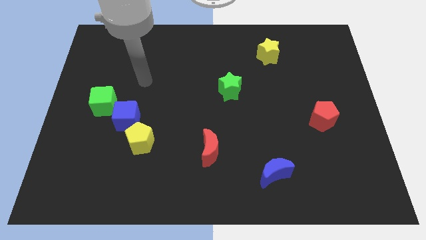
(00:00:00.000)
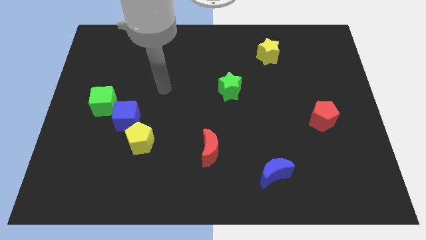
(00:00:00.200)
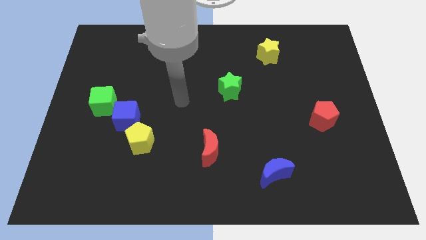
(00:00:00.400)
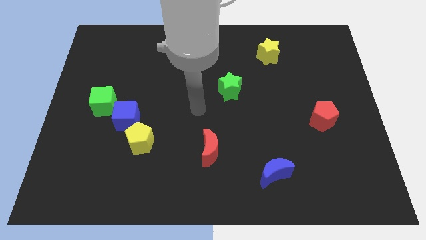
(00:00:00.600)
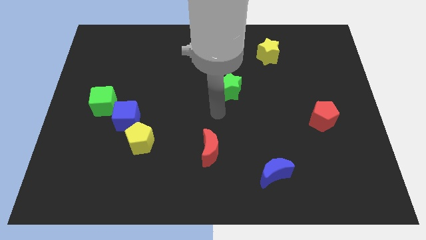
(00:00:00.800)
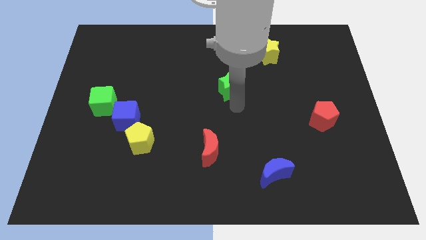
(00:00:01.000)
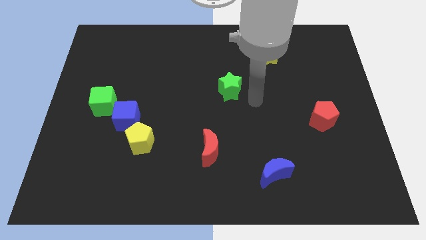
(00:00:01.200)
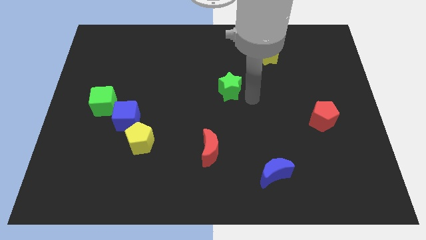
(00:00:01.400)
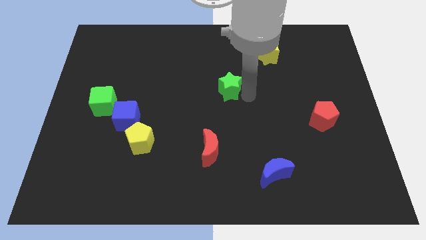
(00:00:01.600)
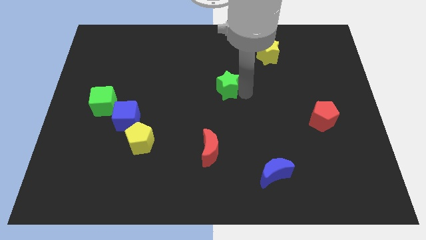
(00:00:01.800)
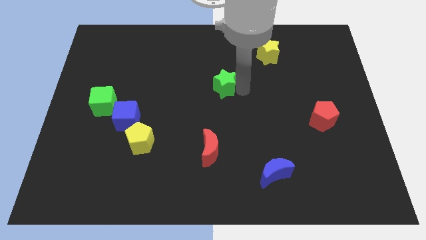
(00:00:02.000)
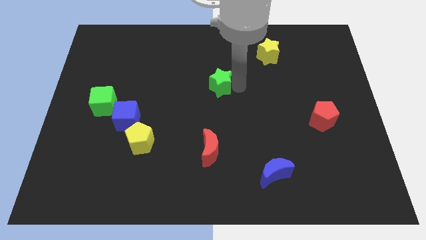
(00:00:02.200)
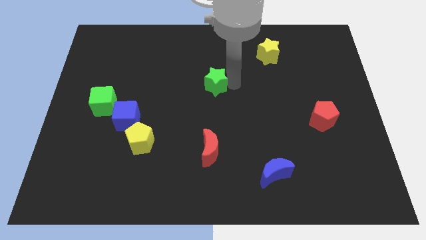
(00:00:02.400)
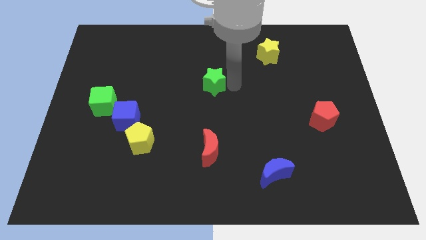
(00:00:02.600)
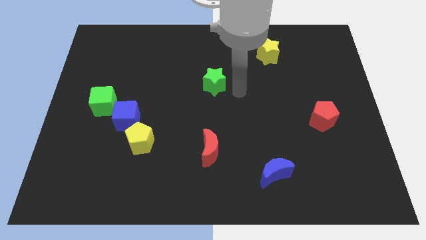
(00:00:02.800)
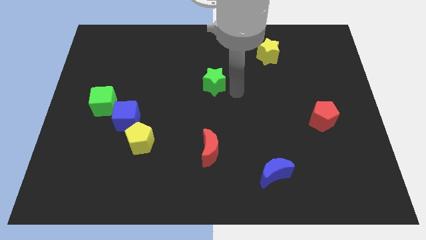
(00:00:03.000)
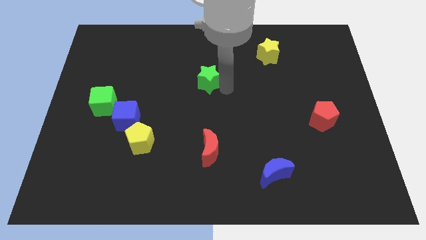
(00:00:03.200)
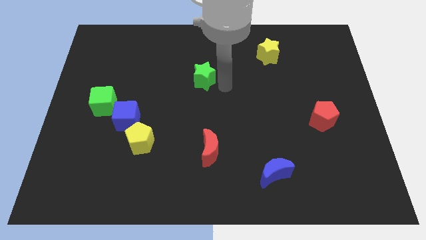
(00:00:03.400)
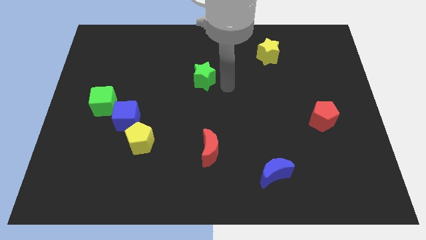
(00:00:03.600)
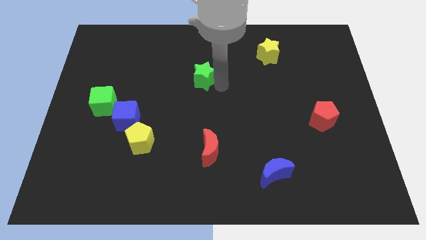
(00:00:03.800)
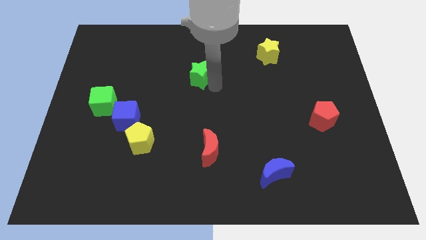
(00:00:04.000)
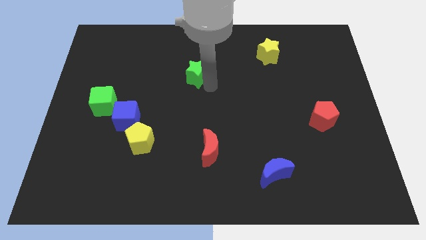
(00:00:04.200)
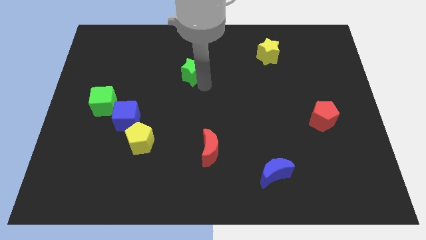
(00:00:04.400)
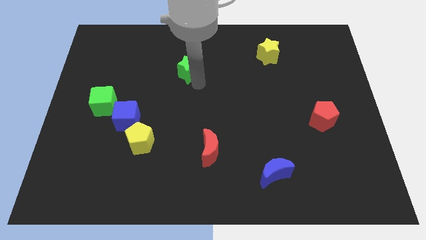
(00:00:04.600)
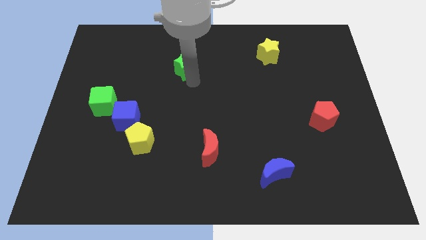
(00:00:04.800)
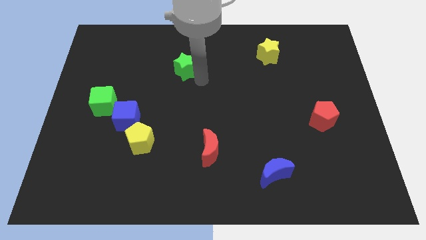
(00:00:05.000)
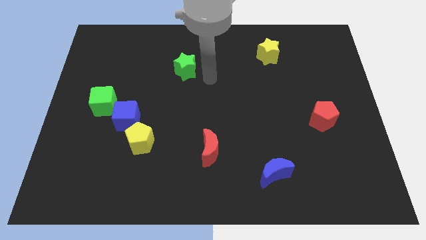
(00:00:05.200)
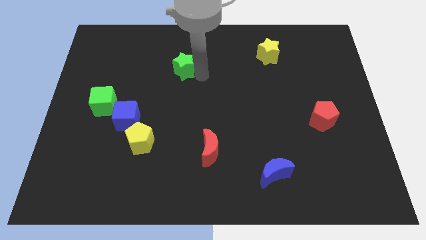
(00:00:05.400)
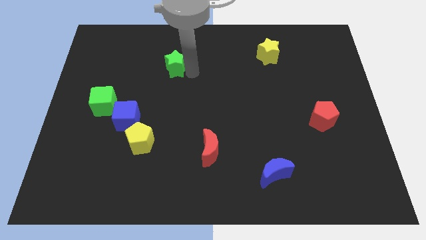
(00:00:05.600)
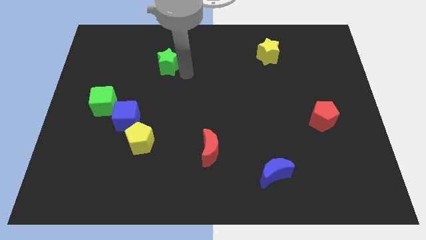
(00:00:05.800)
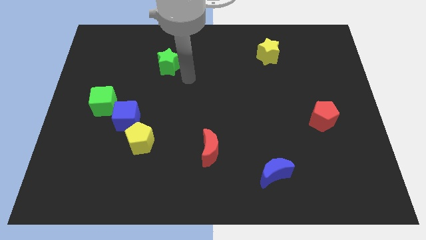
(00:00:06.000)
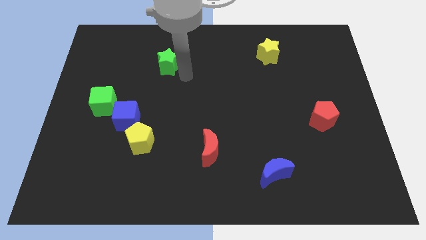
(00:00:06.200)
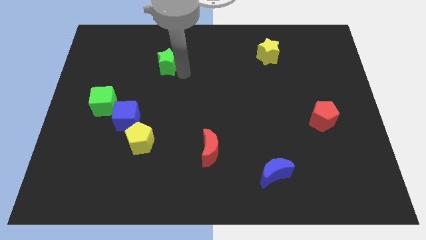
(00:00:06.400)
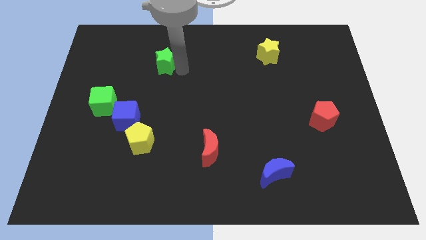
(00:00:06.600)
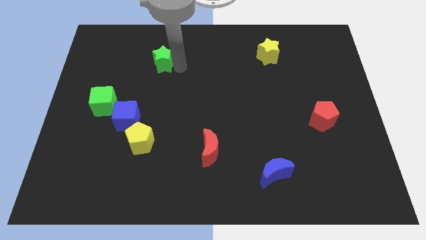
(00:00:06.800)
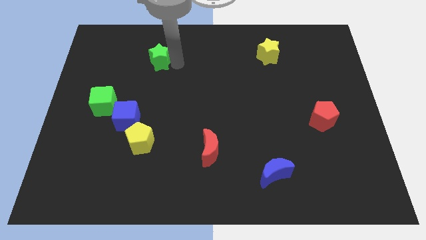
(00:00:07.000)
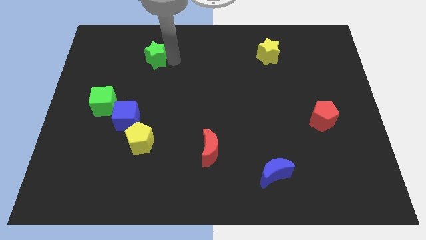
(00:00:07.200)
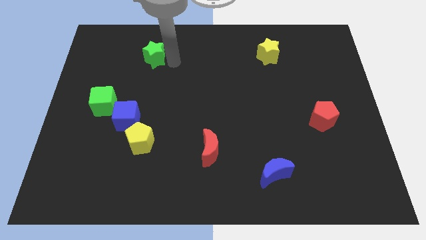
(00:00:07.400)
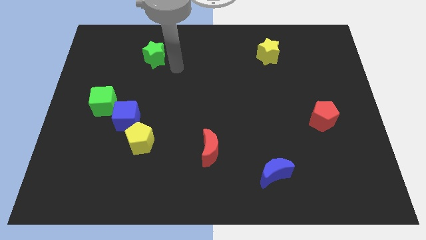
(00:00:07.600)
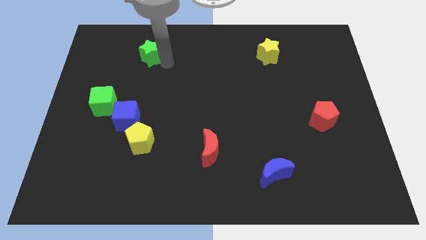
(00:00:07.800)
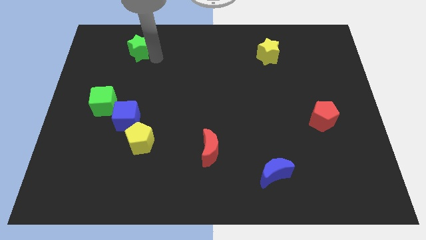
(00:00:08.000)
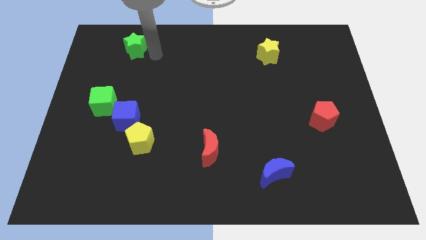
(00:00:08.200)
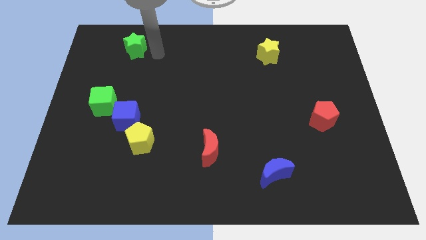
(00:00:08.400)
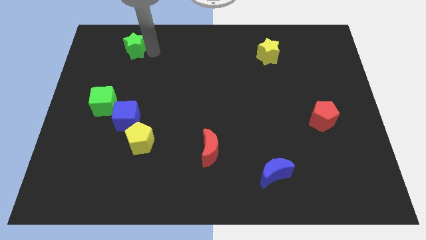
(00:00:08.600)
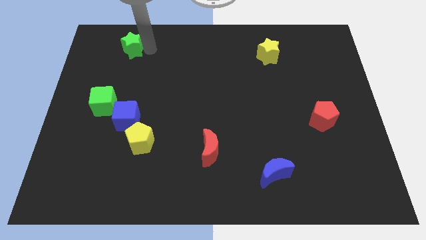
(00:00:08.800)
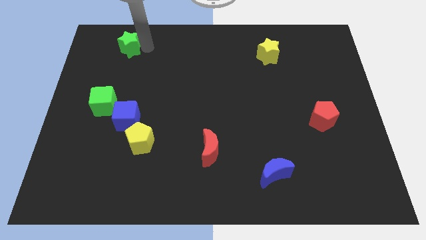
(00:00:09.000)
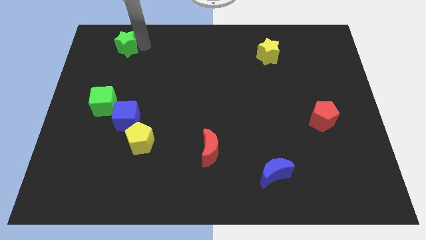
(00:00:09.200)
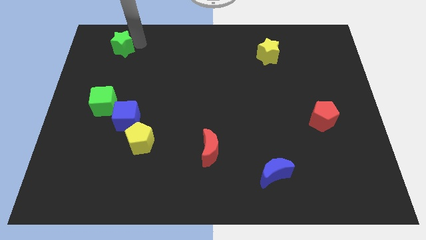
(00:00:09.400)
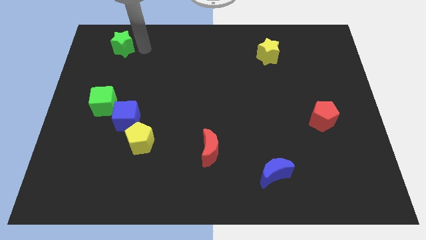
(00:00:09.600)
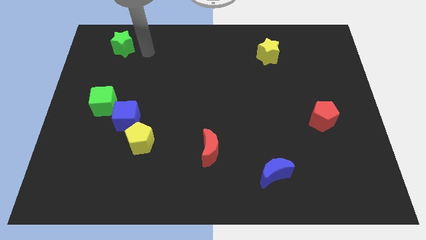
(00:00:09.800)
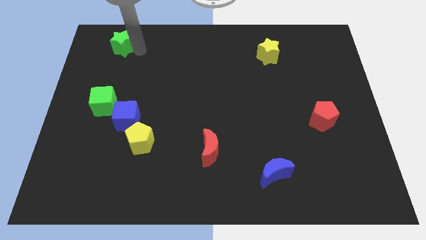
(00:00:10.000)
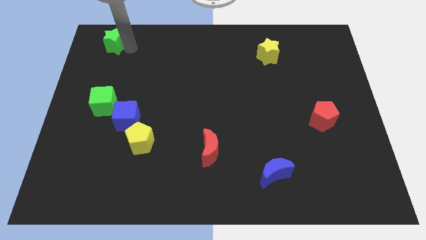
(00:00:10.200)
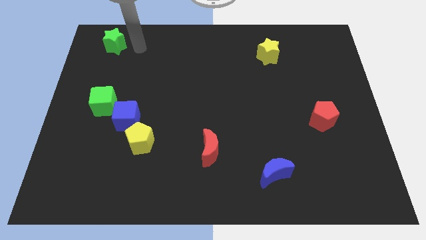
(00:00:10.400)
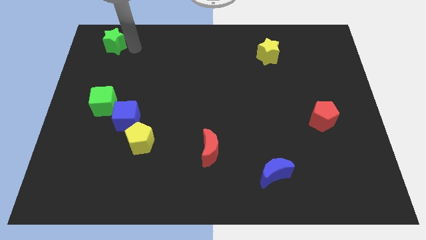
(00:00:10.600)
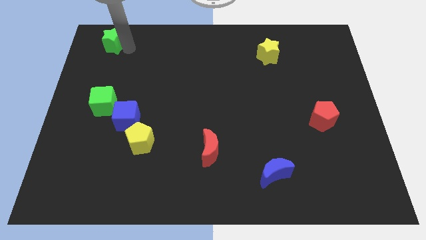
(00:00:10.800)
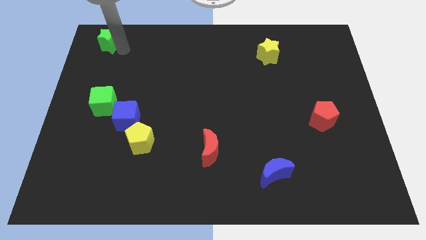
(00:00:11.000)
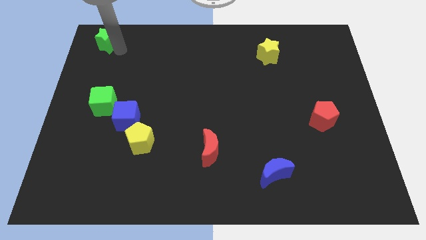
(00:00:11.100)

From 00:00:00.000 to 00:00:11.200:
put the green star to the top left of the board
